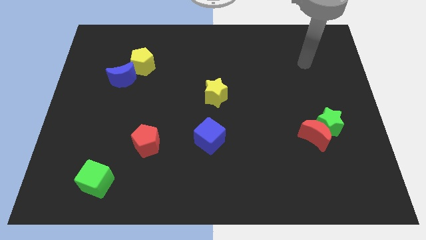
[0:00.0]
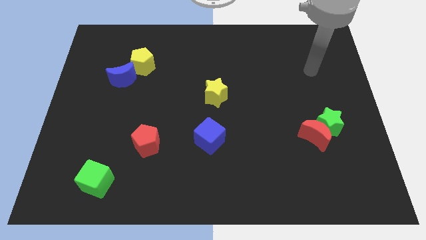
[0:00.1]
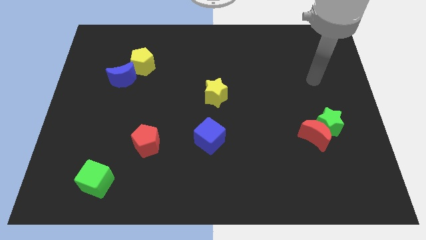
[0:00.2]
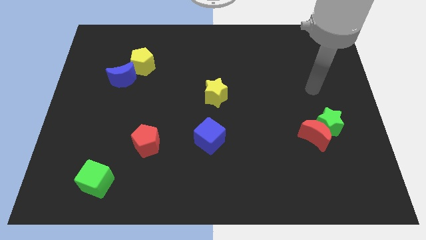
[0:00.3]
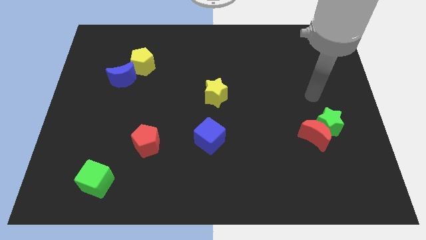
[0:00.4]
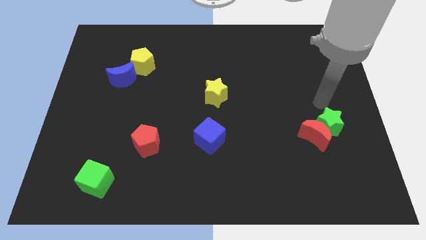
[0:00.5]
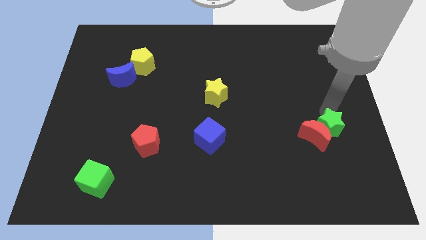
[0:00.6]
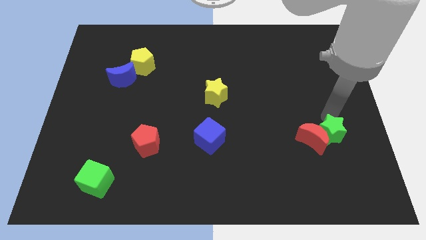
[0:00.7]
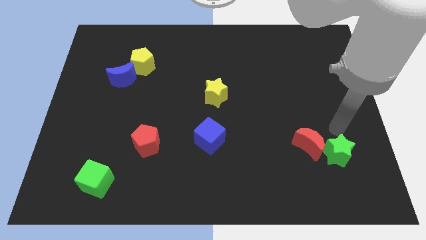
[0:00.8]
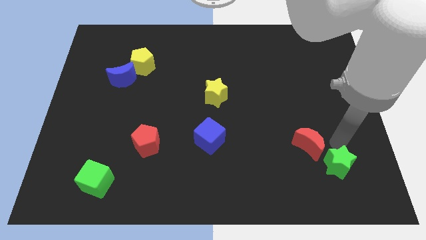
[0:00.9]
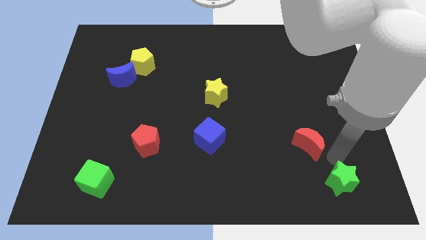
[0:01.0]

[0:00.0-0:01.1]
pull the red moon apart from the green star

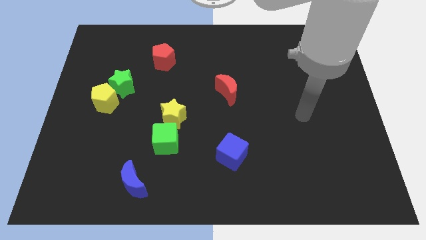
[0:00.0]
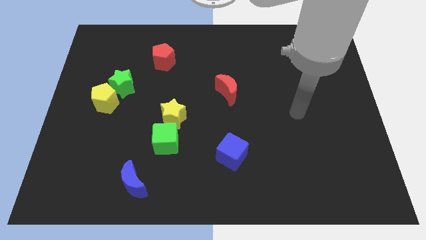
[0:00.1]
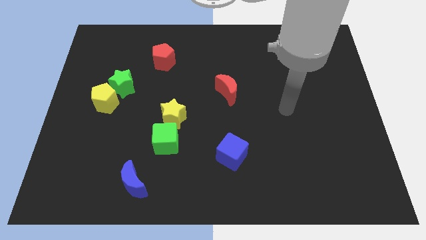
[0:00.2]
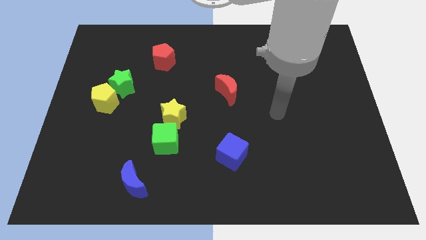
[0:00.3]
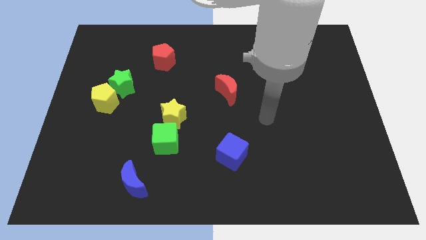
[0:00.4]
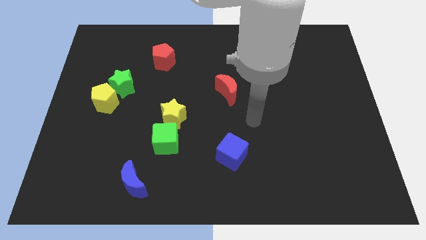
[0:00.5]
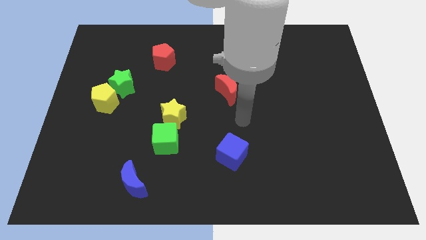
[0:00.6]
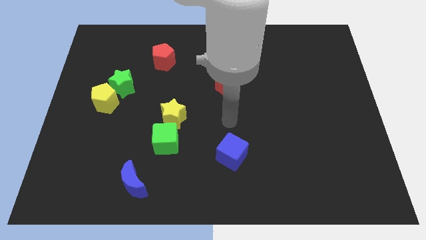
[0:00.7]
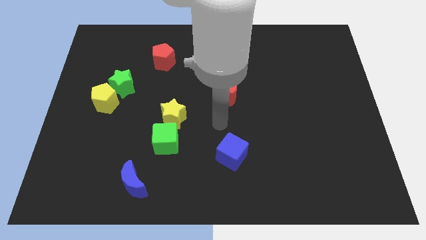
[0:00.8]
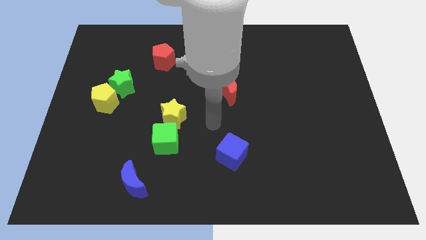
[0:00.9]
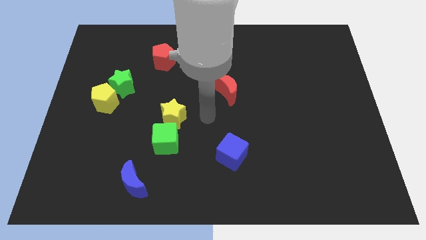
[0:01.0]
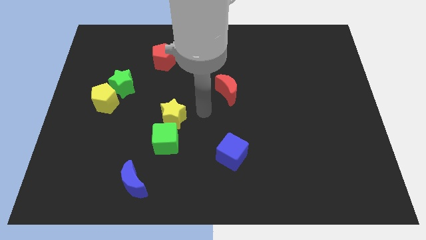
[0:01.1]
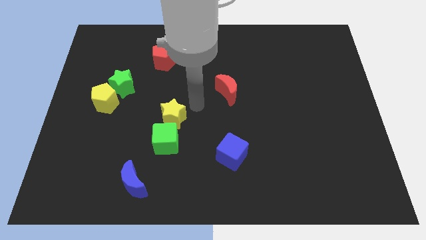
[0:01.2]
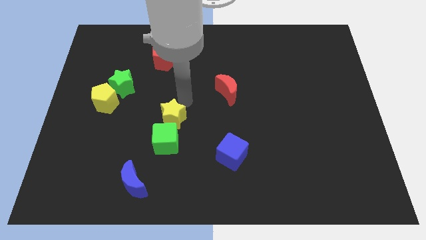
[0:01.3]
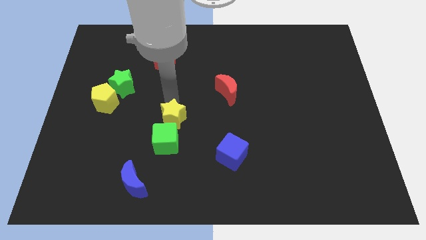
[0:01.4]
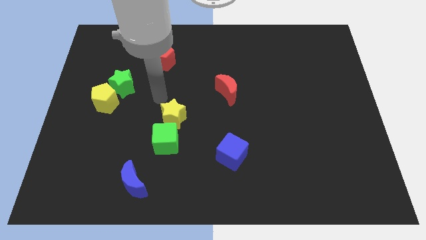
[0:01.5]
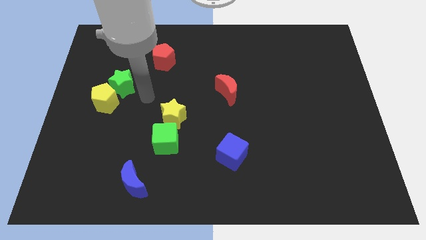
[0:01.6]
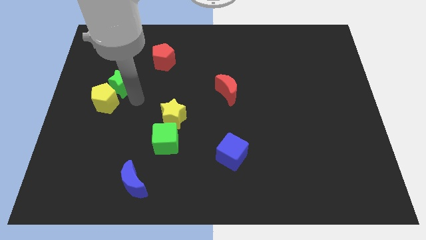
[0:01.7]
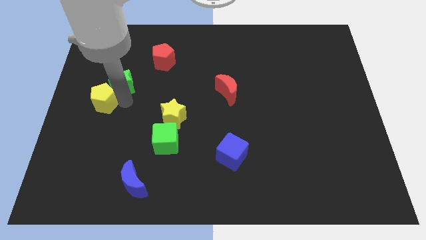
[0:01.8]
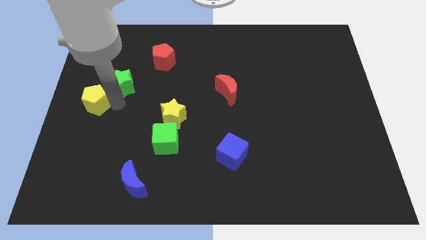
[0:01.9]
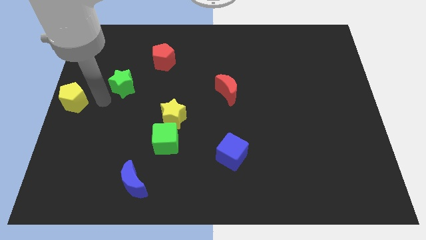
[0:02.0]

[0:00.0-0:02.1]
separate the green star from the yellow pentagon

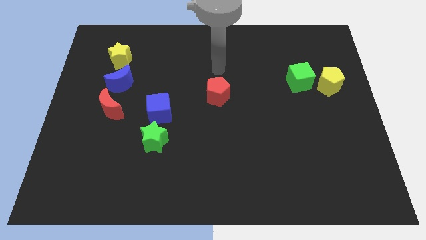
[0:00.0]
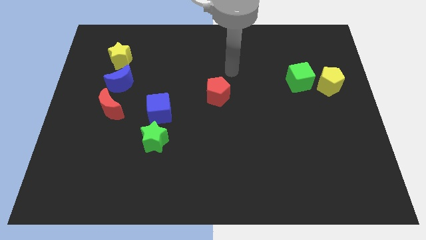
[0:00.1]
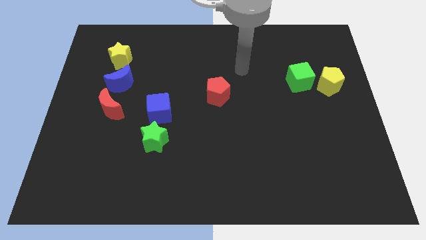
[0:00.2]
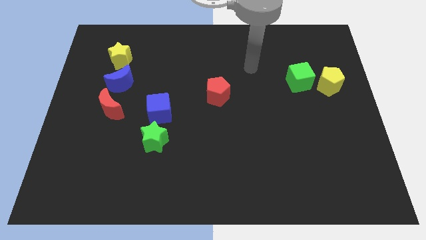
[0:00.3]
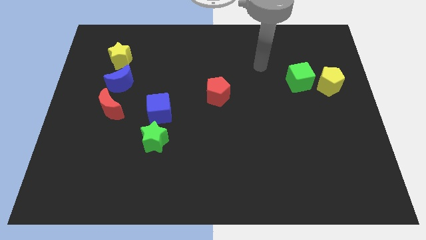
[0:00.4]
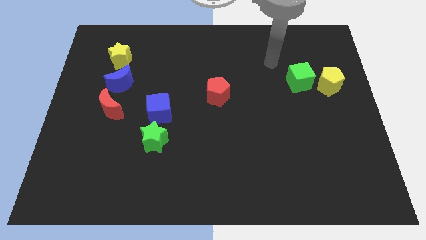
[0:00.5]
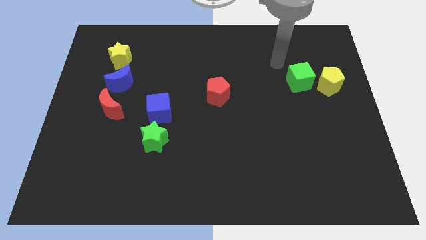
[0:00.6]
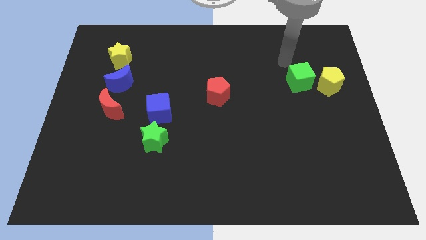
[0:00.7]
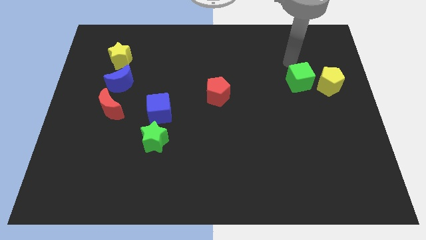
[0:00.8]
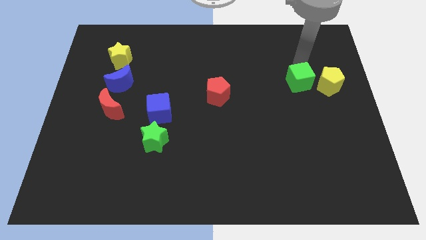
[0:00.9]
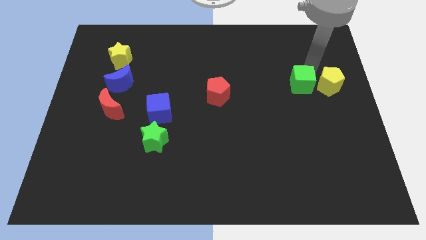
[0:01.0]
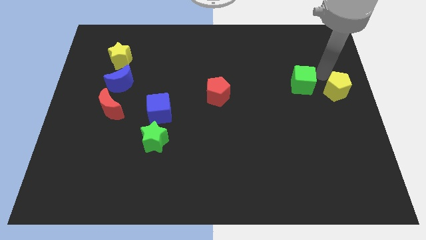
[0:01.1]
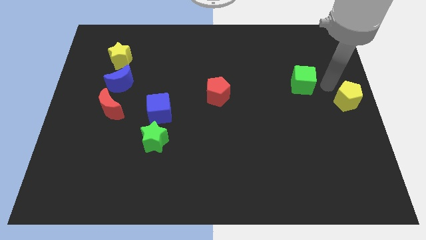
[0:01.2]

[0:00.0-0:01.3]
pull the green cube apart from the yellow pentagon

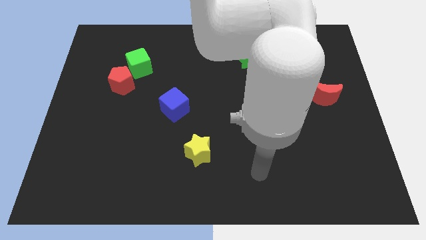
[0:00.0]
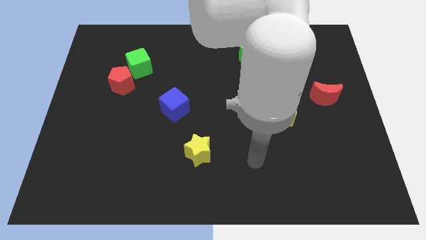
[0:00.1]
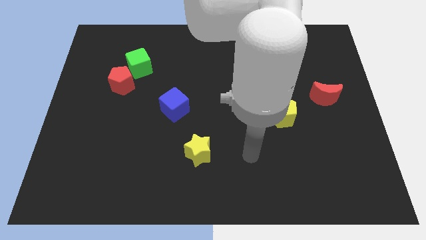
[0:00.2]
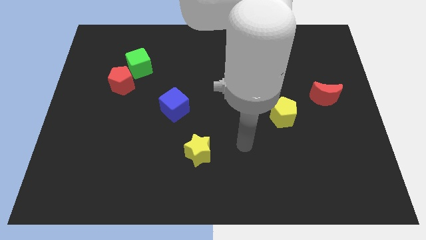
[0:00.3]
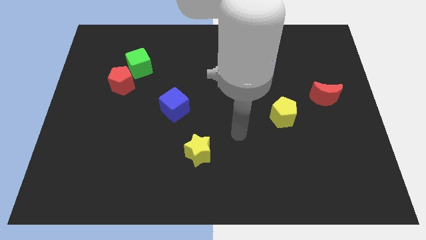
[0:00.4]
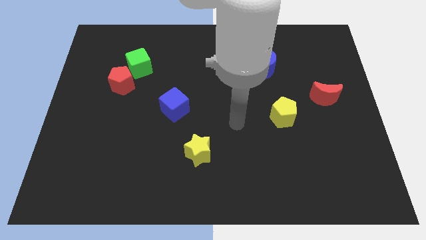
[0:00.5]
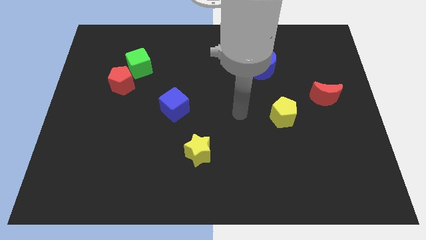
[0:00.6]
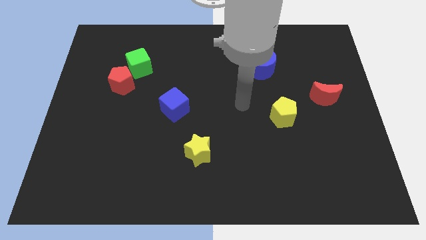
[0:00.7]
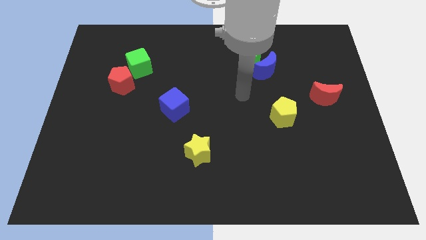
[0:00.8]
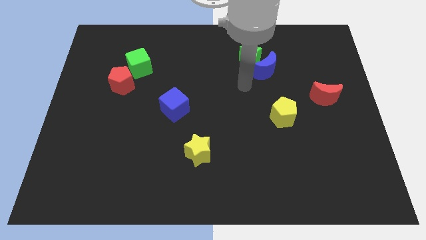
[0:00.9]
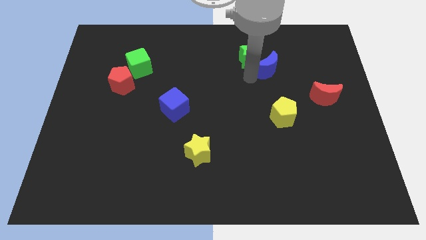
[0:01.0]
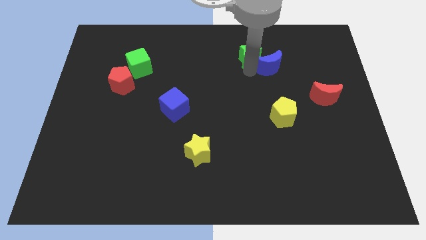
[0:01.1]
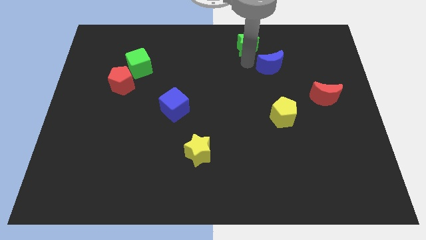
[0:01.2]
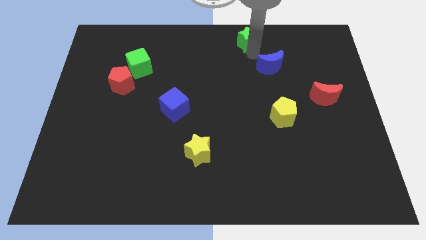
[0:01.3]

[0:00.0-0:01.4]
move the blue moon away from the green star

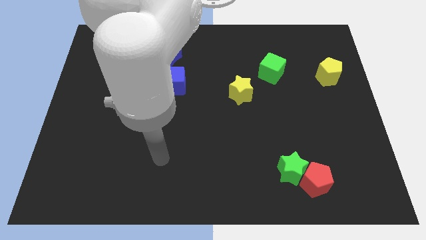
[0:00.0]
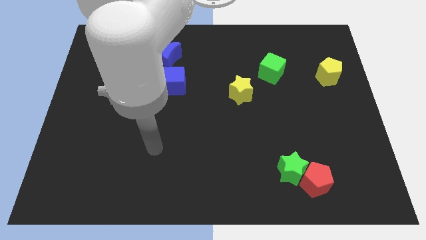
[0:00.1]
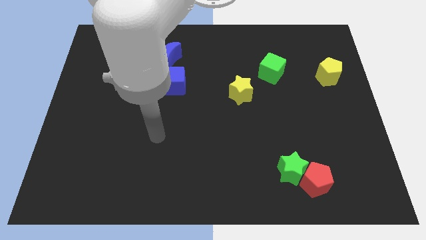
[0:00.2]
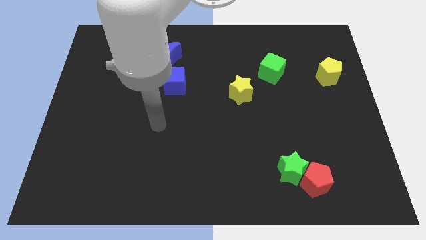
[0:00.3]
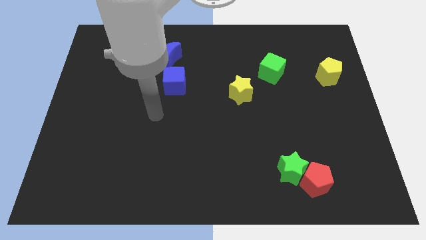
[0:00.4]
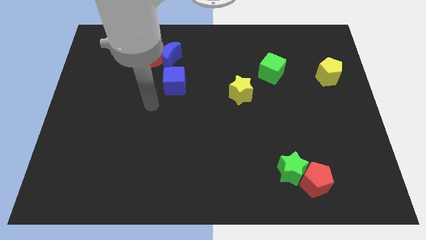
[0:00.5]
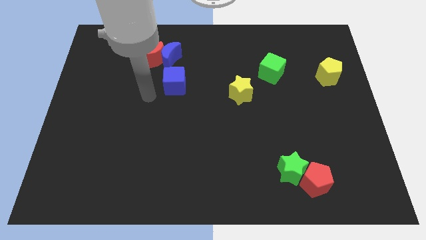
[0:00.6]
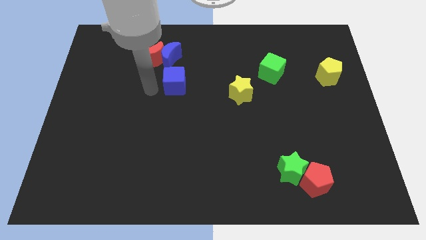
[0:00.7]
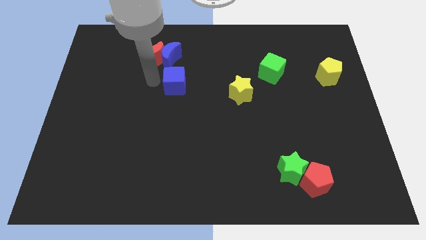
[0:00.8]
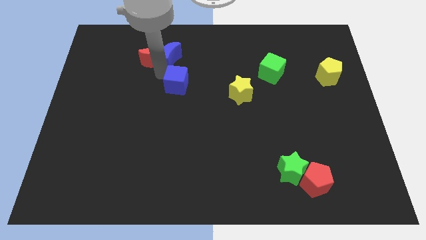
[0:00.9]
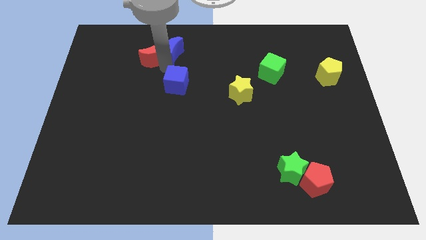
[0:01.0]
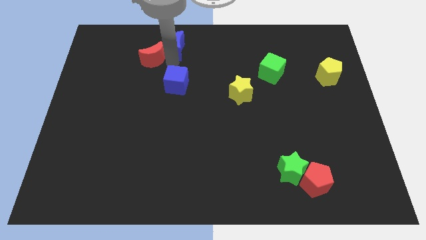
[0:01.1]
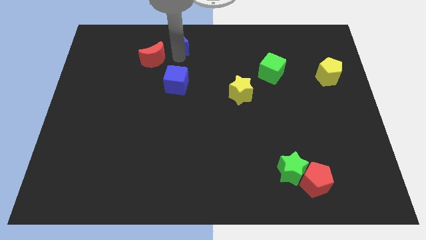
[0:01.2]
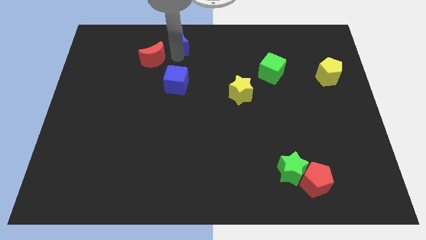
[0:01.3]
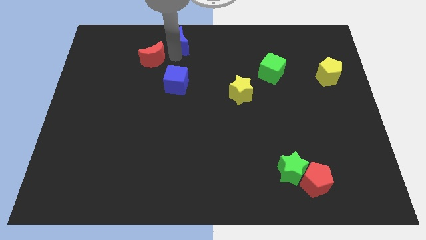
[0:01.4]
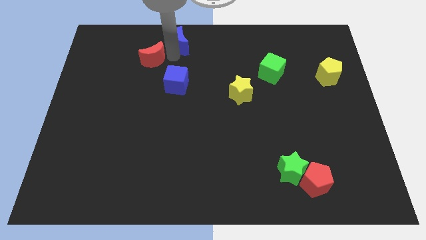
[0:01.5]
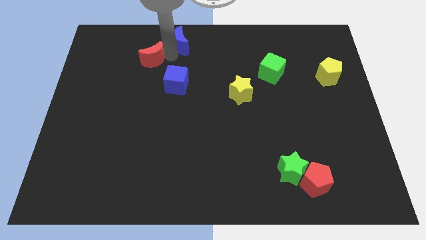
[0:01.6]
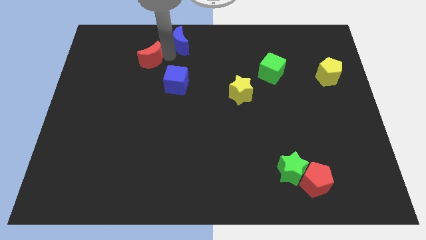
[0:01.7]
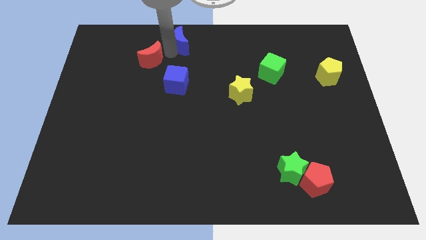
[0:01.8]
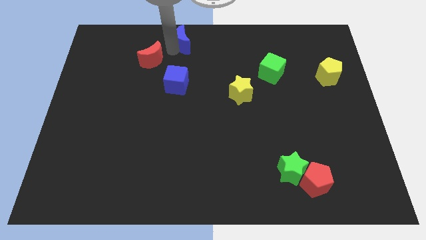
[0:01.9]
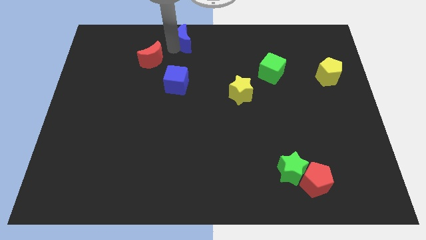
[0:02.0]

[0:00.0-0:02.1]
move the red moon away from the blue moon

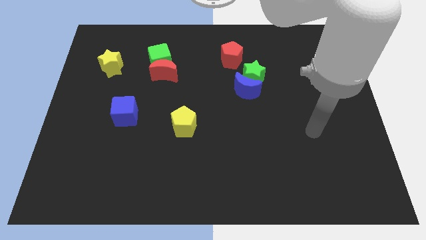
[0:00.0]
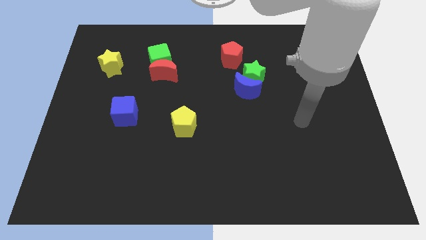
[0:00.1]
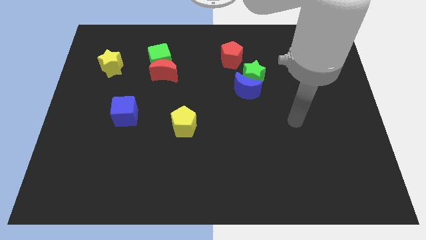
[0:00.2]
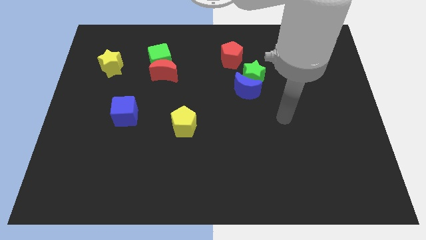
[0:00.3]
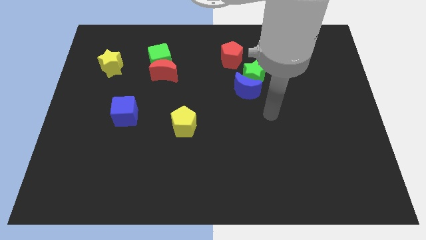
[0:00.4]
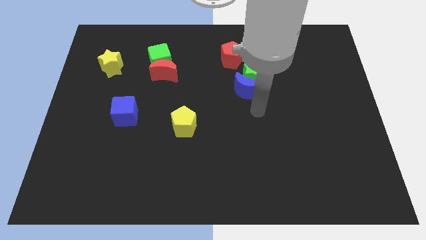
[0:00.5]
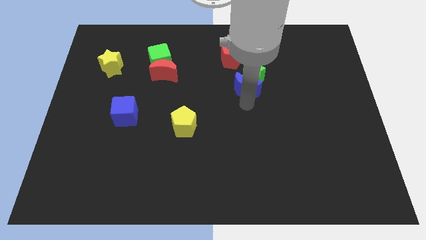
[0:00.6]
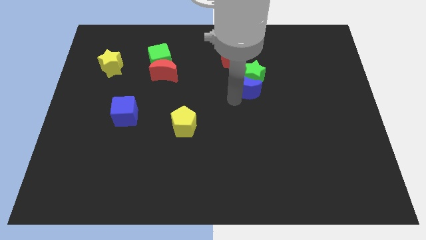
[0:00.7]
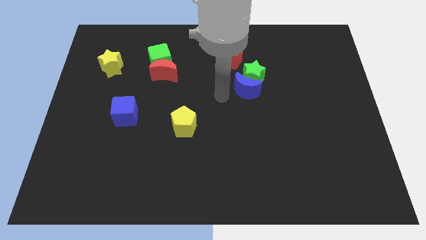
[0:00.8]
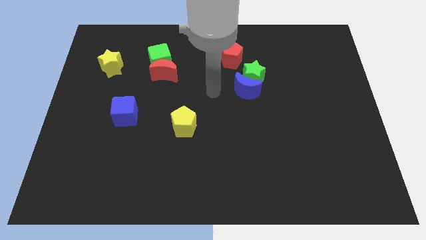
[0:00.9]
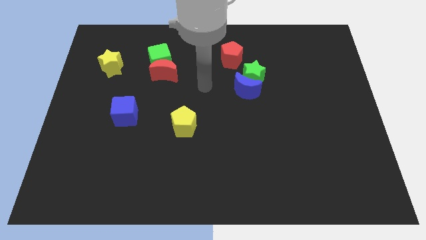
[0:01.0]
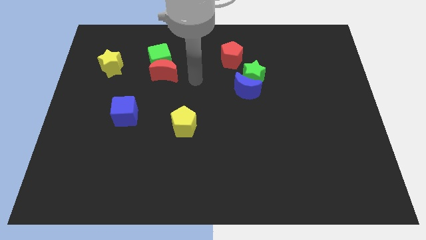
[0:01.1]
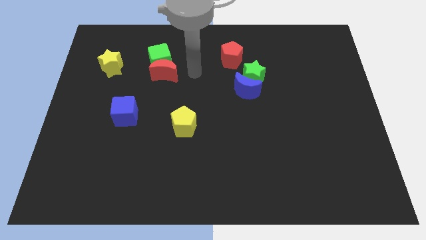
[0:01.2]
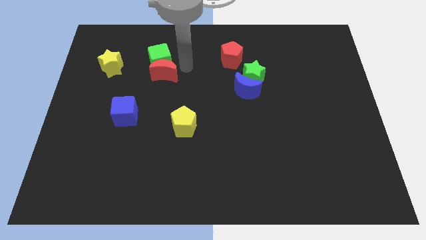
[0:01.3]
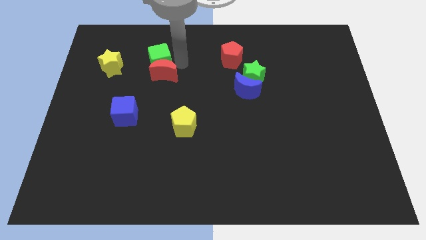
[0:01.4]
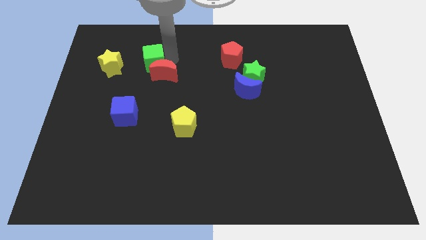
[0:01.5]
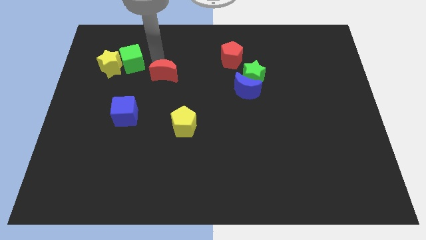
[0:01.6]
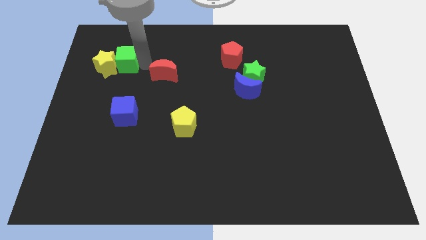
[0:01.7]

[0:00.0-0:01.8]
separate the red moon from the green cube
